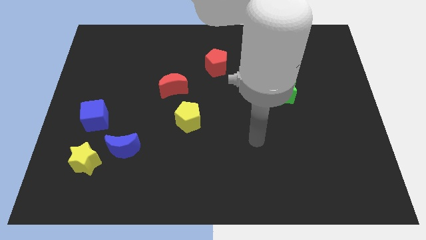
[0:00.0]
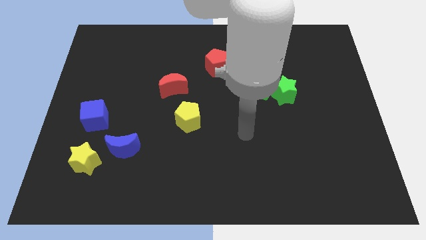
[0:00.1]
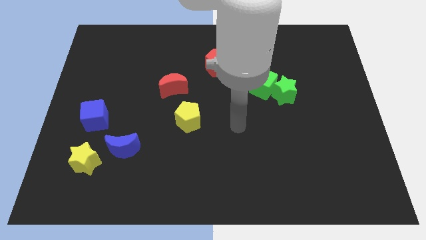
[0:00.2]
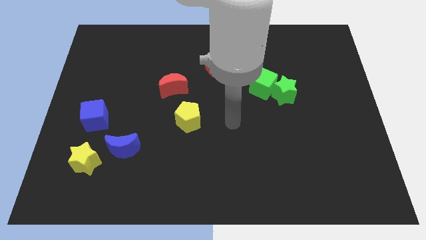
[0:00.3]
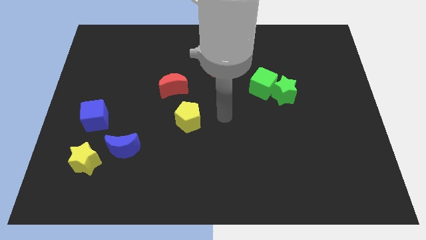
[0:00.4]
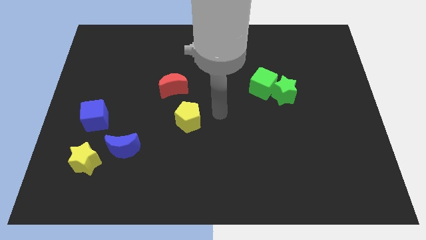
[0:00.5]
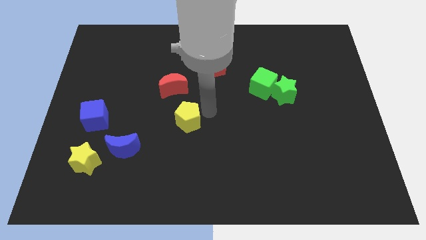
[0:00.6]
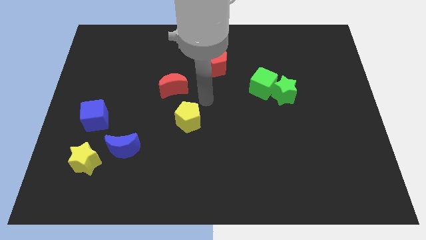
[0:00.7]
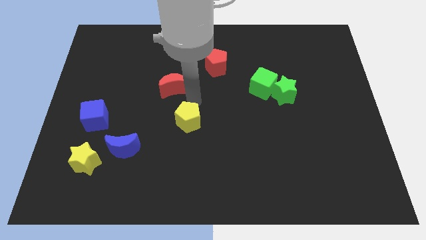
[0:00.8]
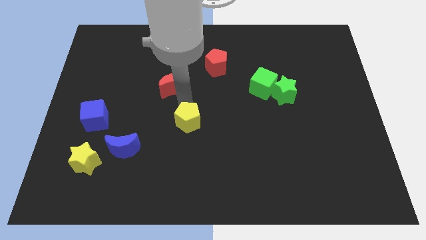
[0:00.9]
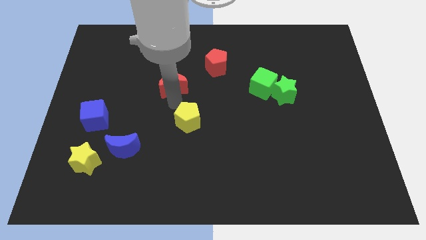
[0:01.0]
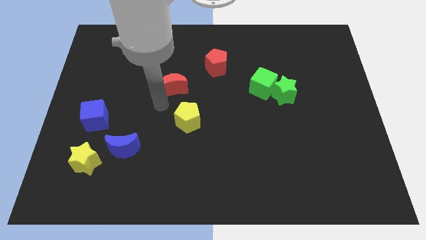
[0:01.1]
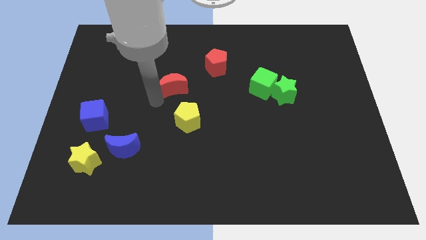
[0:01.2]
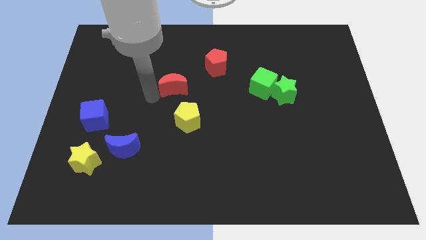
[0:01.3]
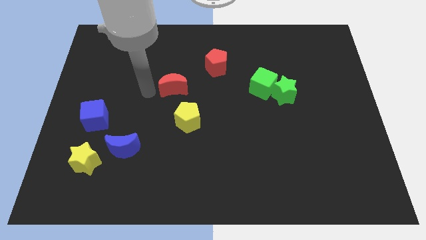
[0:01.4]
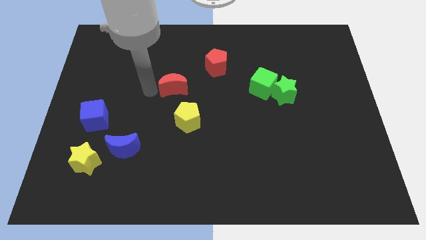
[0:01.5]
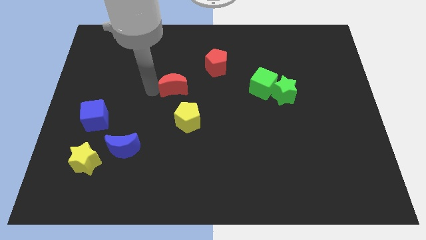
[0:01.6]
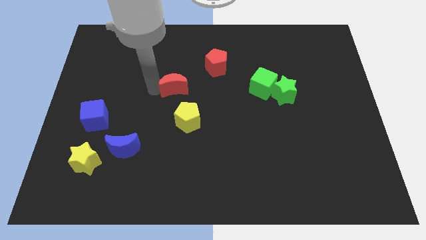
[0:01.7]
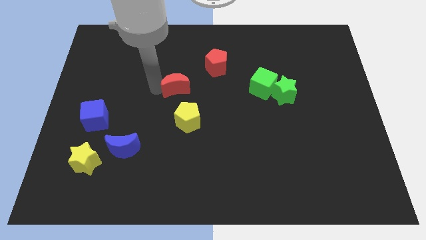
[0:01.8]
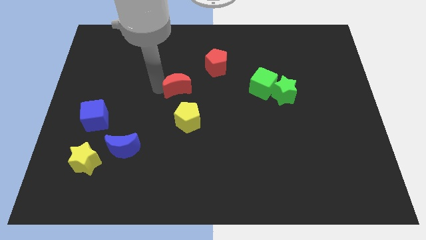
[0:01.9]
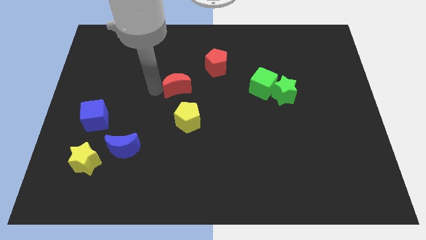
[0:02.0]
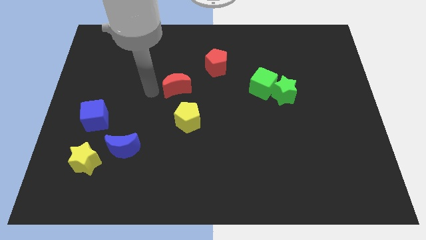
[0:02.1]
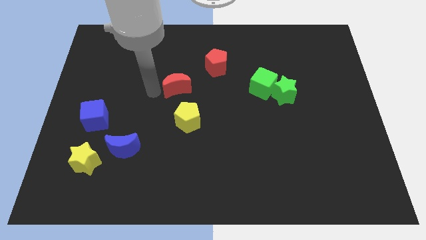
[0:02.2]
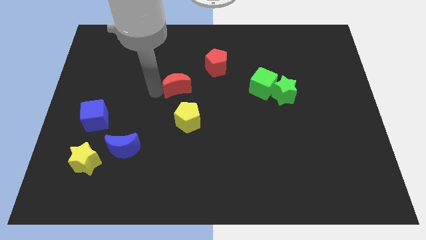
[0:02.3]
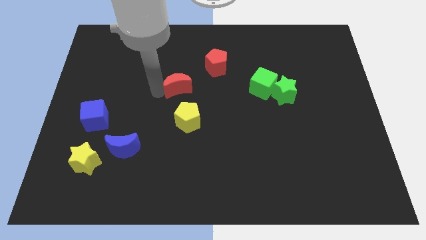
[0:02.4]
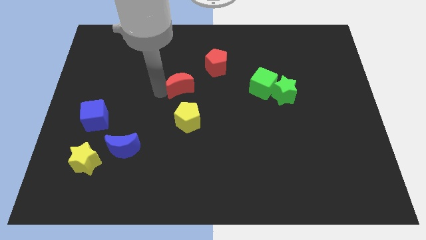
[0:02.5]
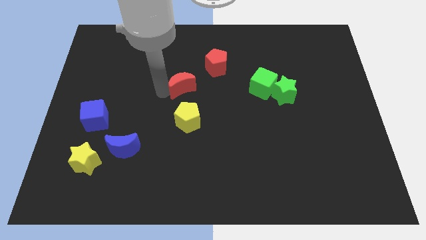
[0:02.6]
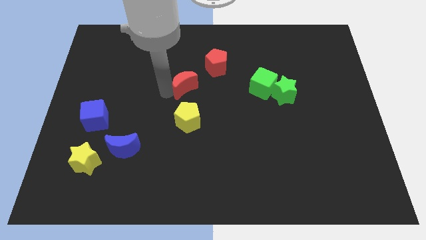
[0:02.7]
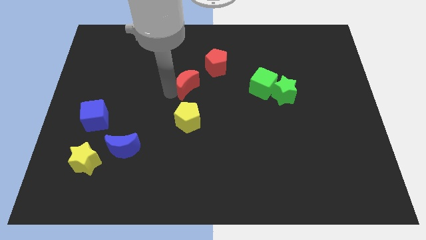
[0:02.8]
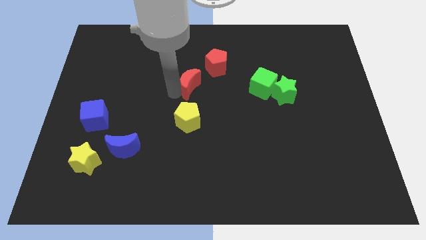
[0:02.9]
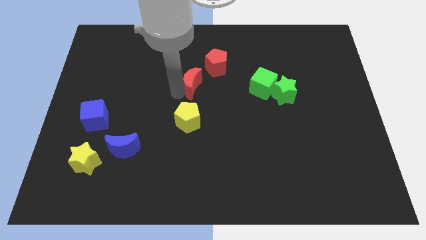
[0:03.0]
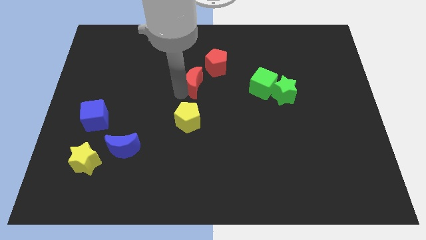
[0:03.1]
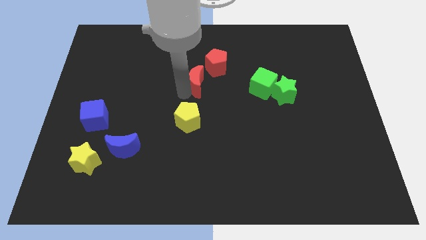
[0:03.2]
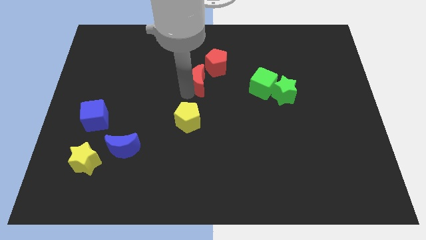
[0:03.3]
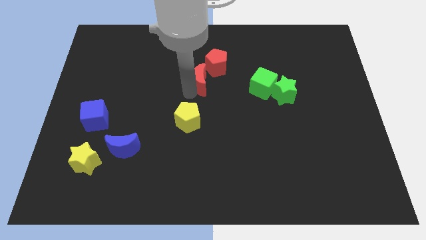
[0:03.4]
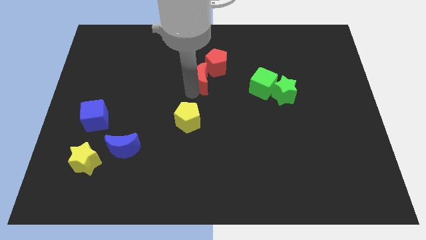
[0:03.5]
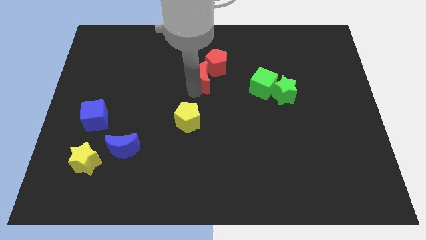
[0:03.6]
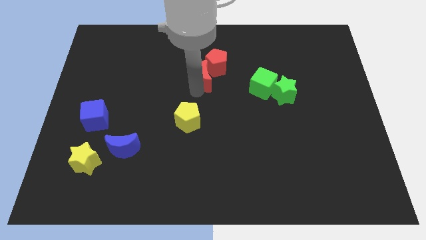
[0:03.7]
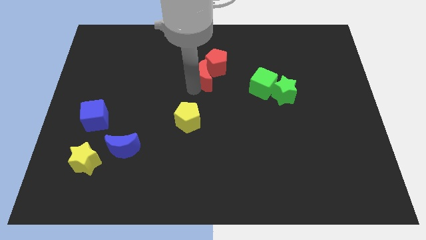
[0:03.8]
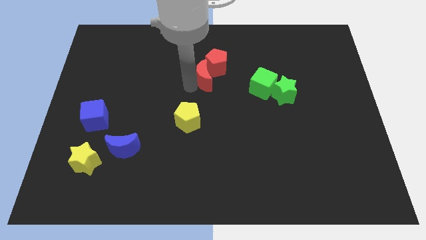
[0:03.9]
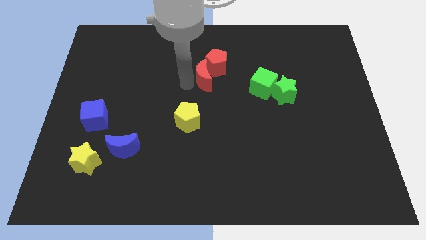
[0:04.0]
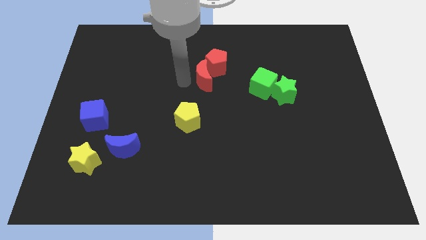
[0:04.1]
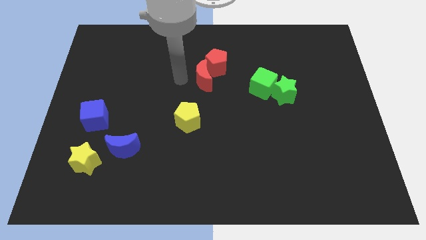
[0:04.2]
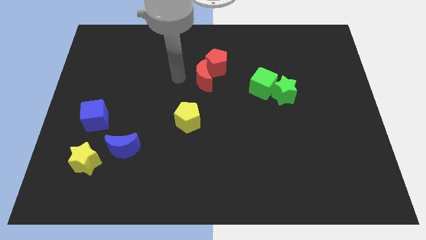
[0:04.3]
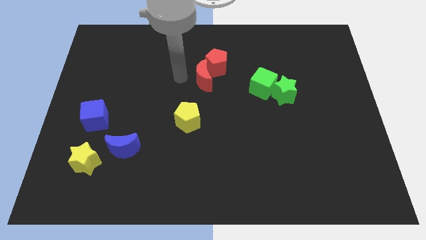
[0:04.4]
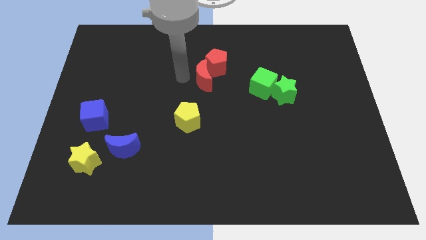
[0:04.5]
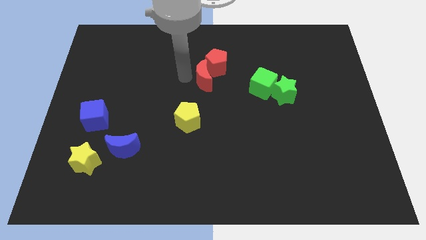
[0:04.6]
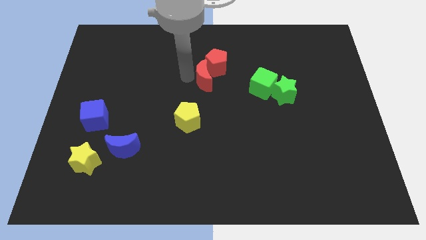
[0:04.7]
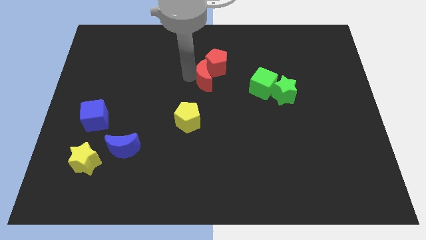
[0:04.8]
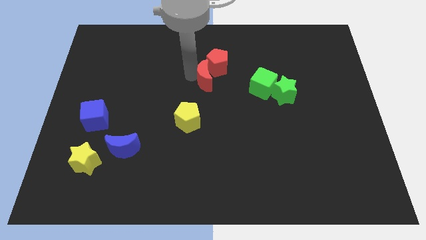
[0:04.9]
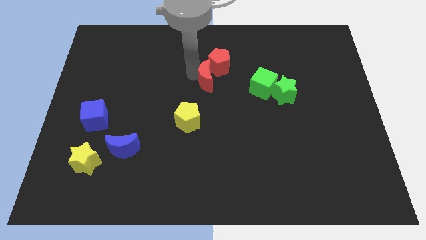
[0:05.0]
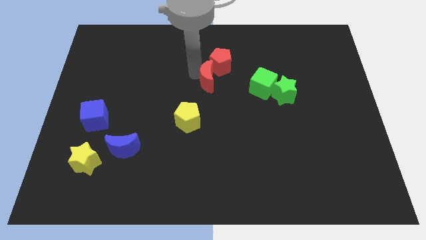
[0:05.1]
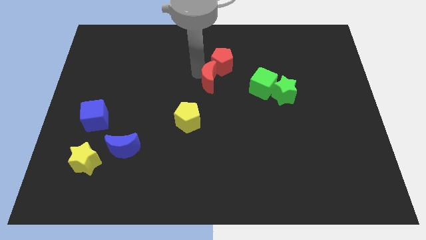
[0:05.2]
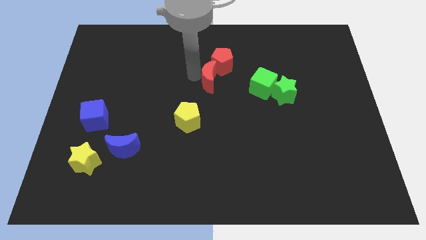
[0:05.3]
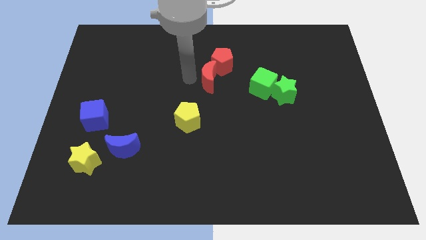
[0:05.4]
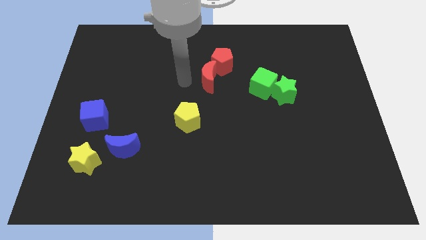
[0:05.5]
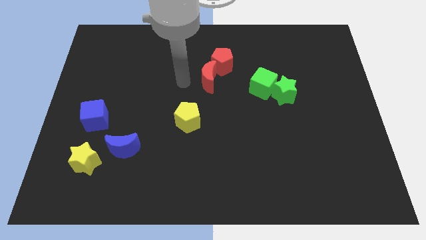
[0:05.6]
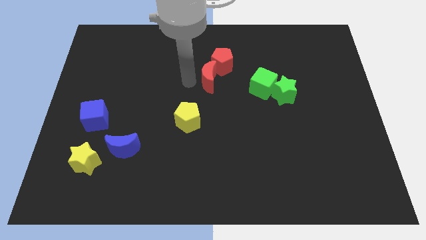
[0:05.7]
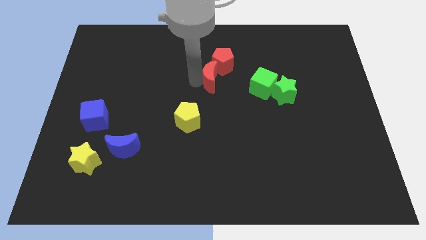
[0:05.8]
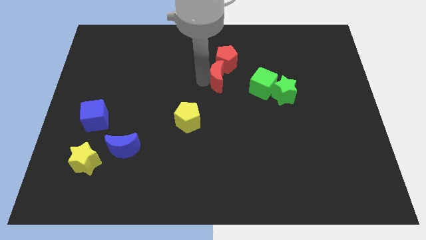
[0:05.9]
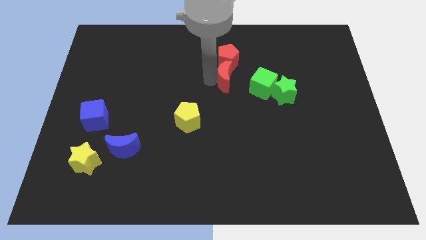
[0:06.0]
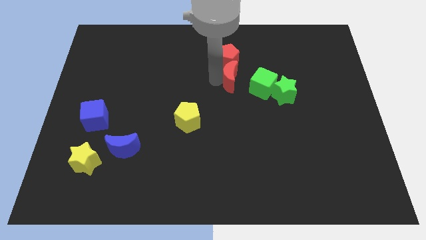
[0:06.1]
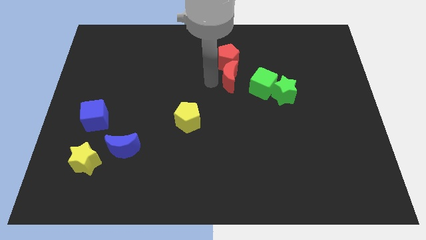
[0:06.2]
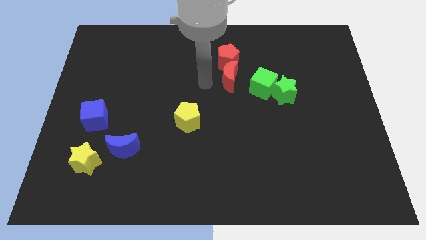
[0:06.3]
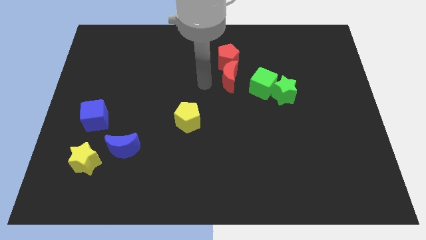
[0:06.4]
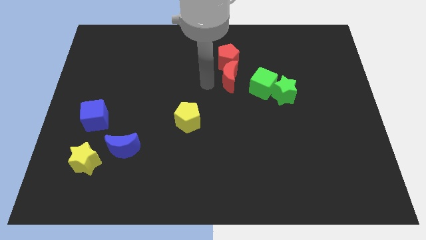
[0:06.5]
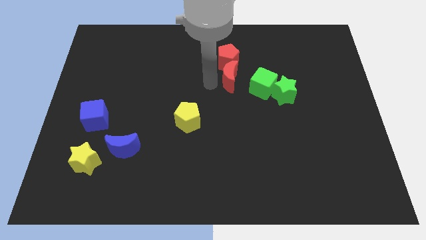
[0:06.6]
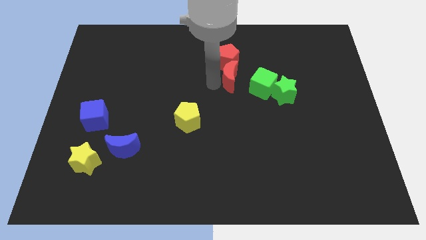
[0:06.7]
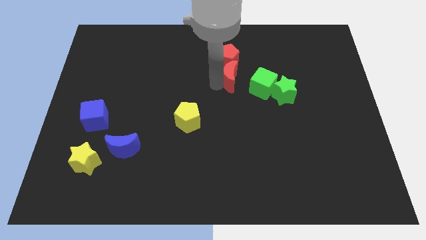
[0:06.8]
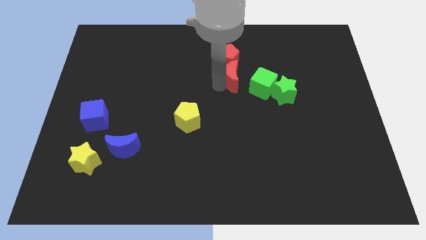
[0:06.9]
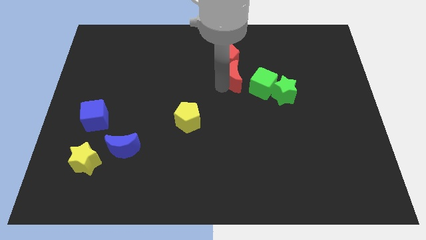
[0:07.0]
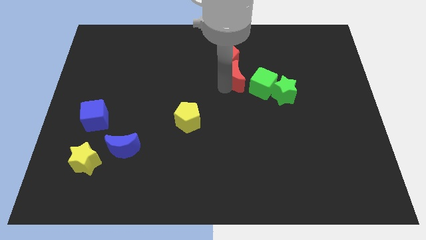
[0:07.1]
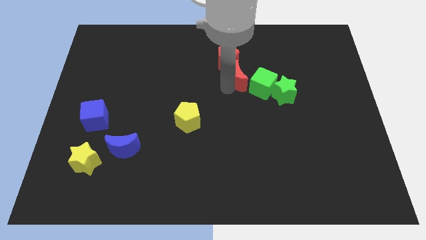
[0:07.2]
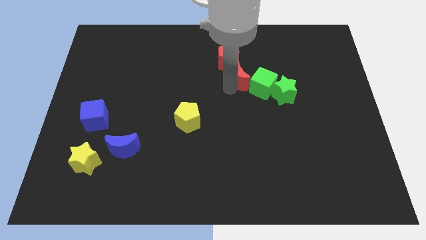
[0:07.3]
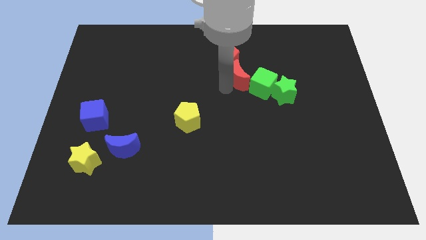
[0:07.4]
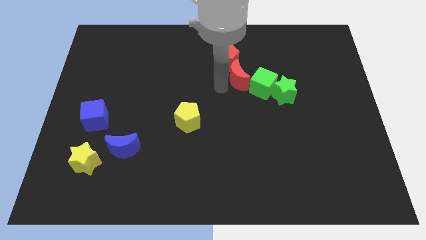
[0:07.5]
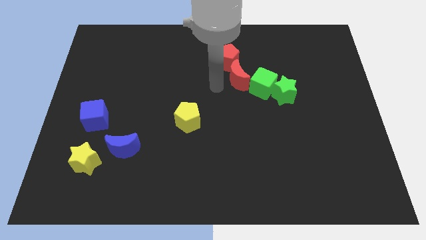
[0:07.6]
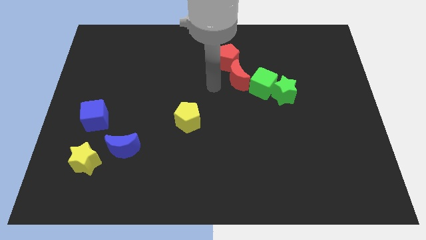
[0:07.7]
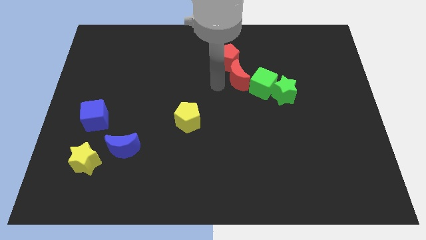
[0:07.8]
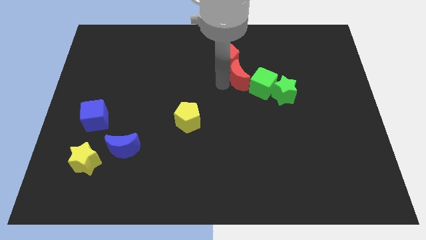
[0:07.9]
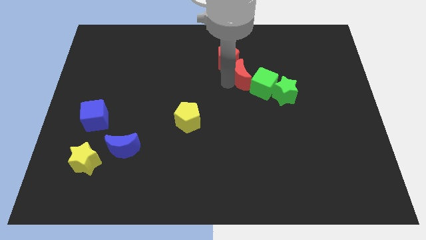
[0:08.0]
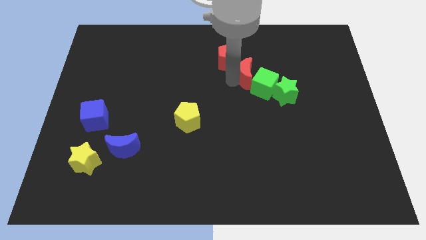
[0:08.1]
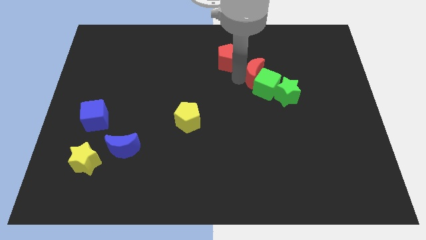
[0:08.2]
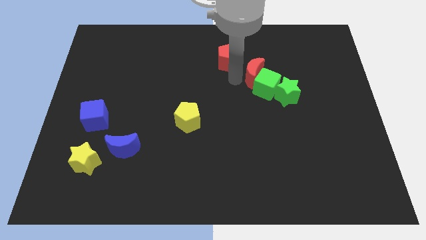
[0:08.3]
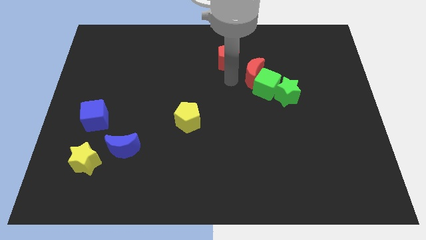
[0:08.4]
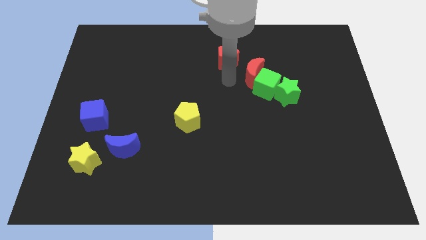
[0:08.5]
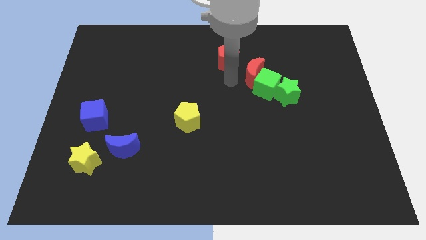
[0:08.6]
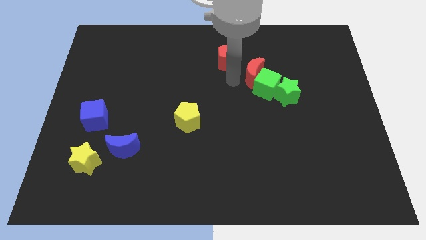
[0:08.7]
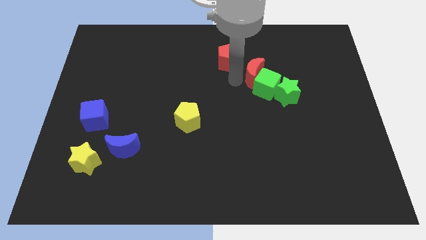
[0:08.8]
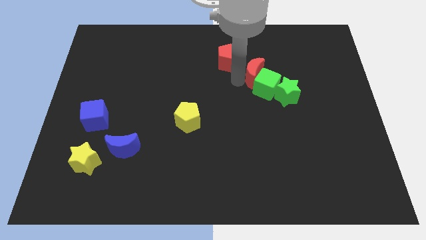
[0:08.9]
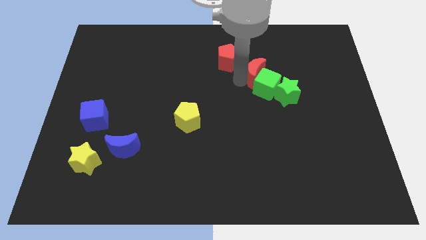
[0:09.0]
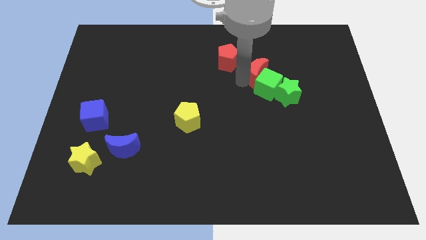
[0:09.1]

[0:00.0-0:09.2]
slide the red moon right
